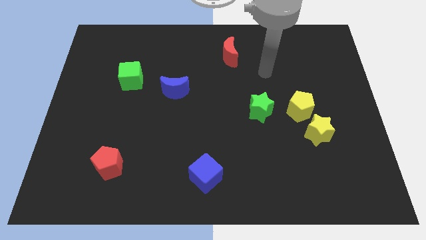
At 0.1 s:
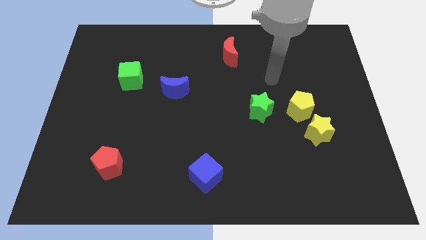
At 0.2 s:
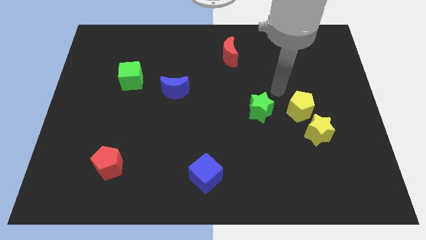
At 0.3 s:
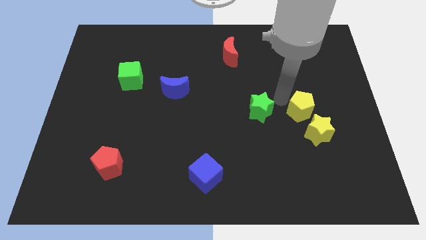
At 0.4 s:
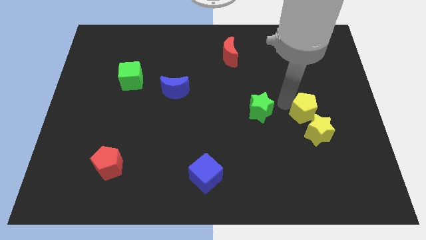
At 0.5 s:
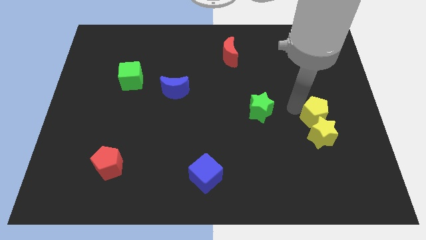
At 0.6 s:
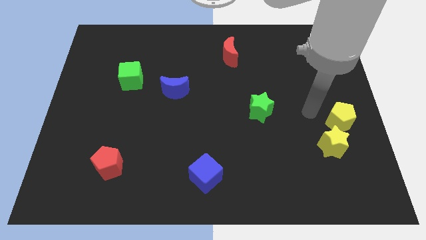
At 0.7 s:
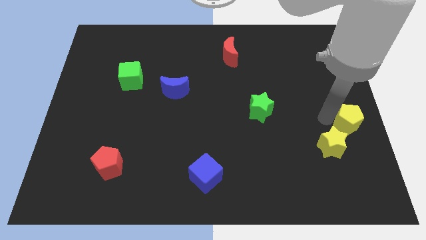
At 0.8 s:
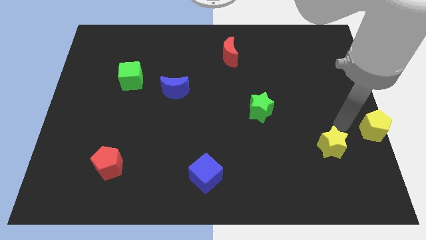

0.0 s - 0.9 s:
pull the yellow star apart from the yellow pentagon

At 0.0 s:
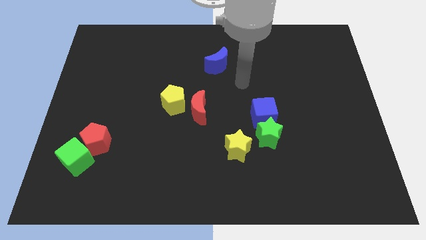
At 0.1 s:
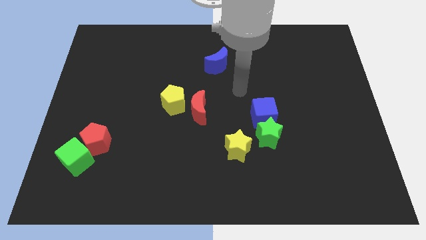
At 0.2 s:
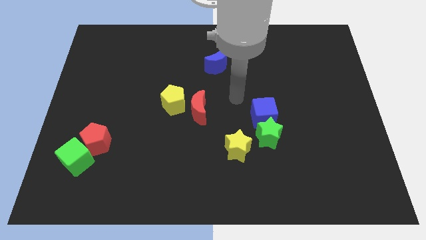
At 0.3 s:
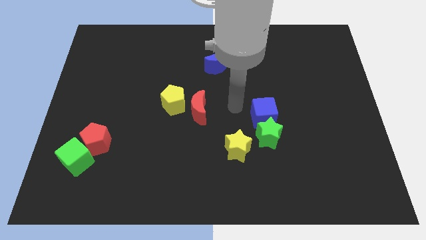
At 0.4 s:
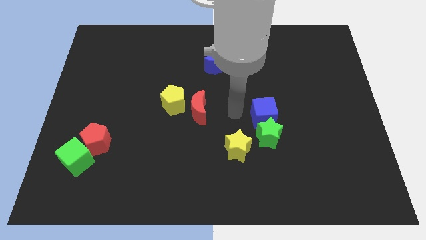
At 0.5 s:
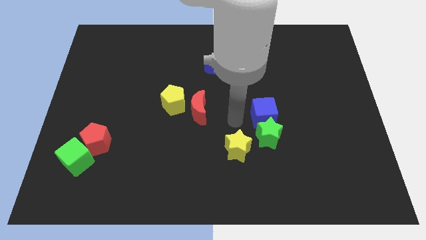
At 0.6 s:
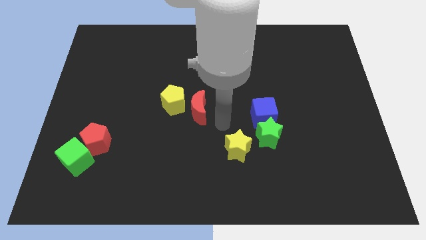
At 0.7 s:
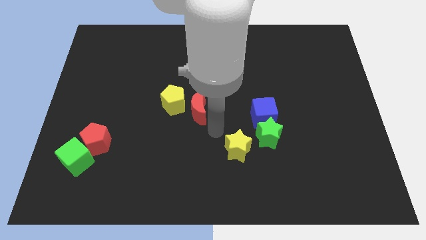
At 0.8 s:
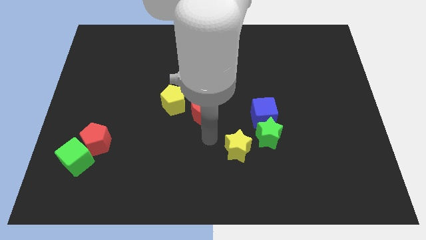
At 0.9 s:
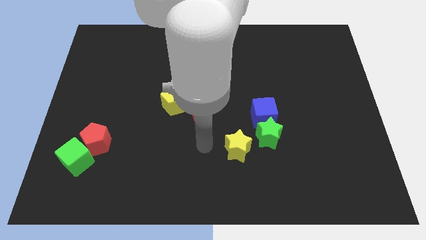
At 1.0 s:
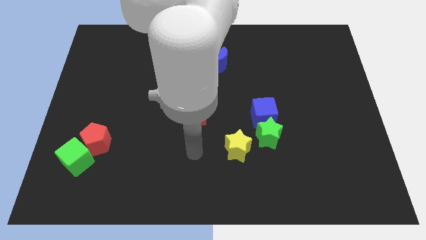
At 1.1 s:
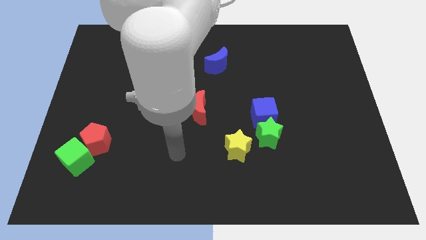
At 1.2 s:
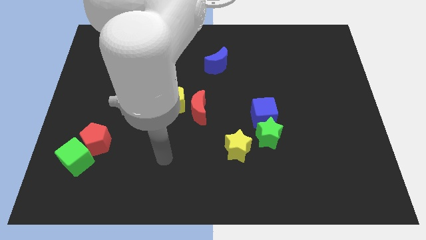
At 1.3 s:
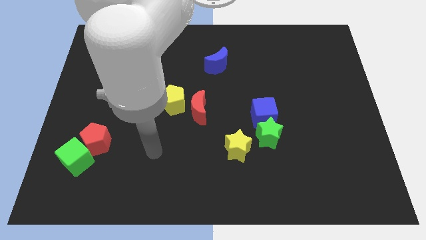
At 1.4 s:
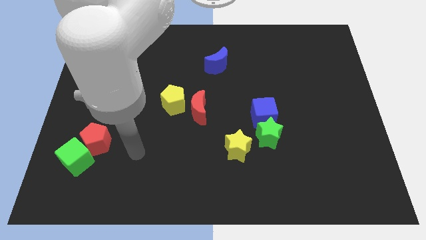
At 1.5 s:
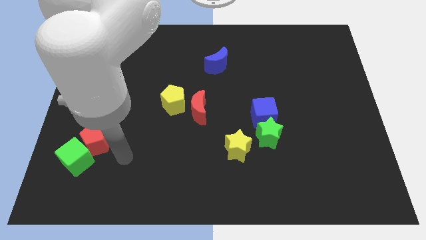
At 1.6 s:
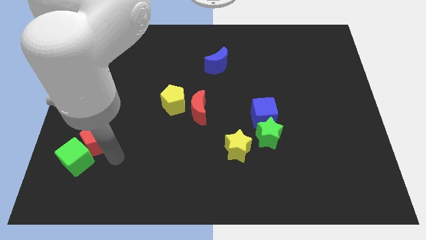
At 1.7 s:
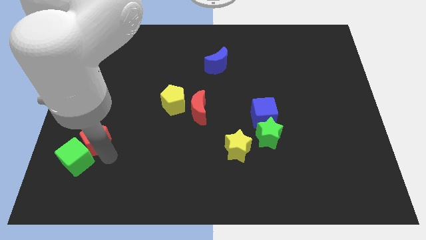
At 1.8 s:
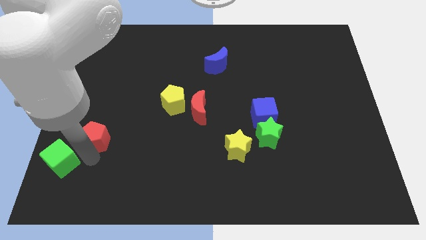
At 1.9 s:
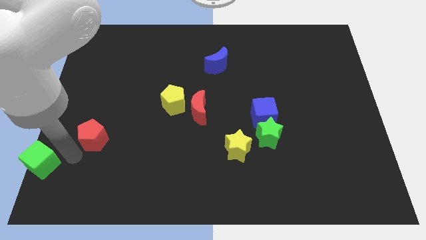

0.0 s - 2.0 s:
separate the red pentagon from the green cube

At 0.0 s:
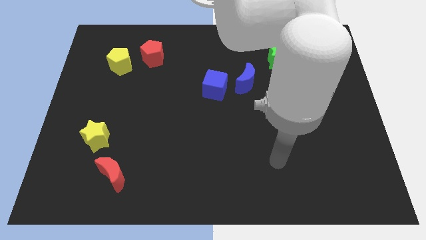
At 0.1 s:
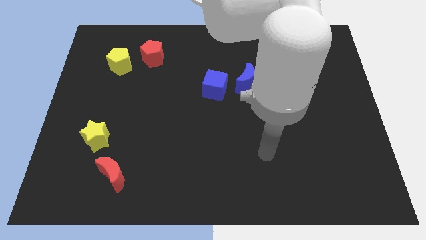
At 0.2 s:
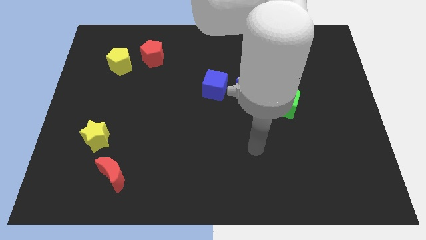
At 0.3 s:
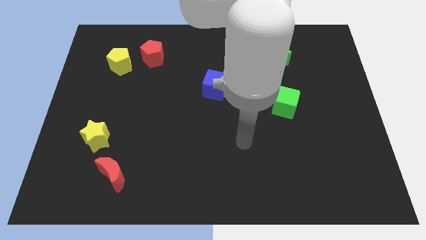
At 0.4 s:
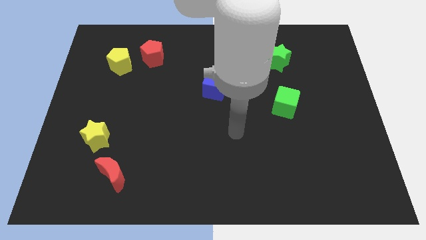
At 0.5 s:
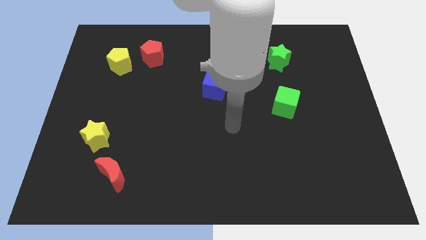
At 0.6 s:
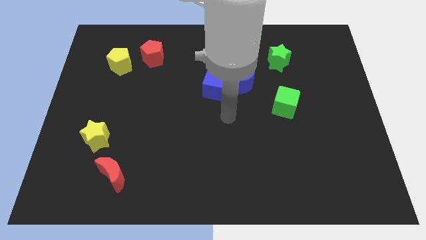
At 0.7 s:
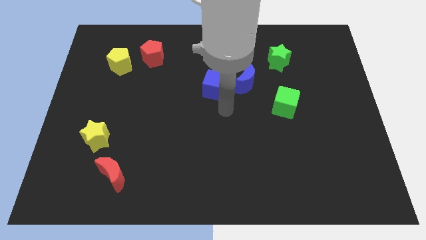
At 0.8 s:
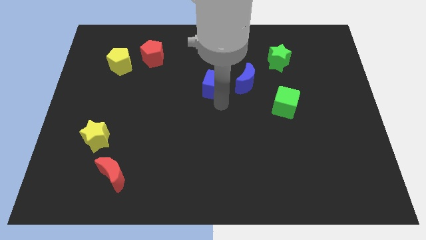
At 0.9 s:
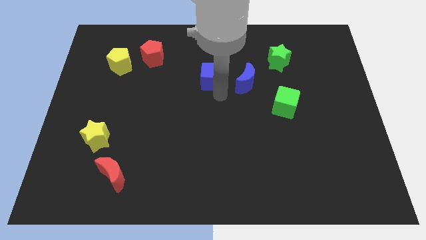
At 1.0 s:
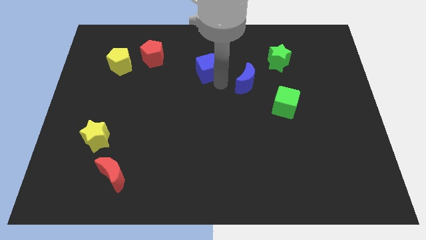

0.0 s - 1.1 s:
move the blue moon away from the blue cube

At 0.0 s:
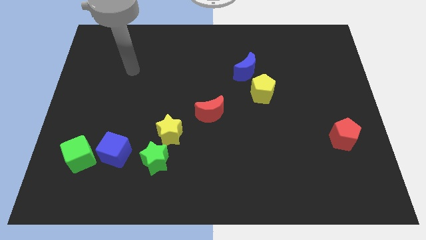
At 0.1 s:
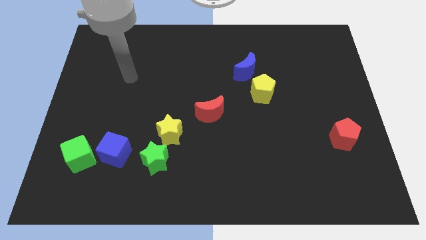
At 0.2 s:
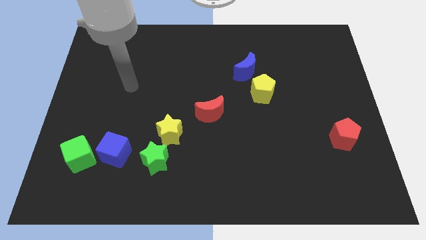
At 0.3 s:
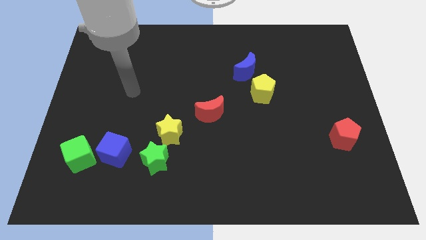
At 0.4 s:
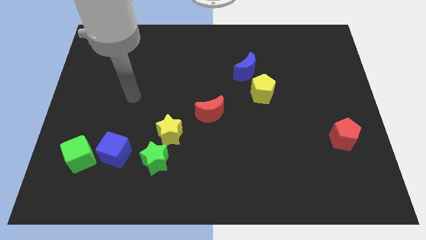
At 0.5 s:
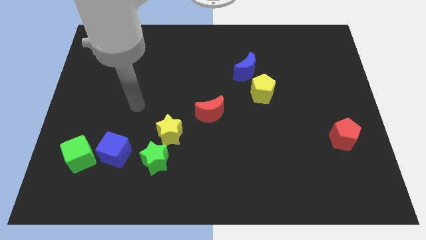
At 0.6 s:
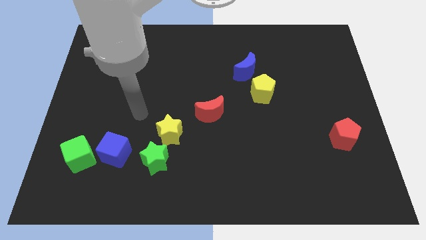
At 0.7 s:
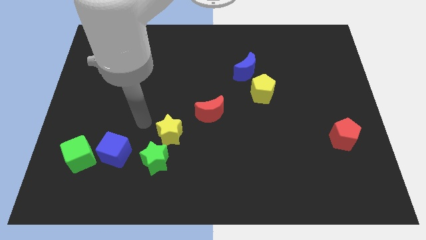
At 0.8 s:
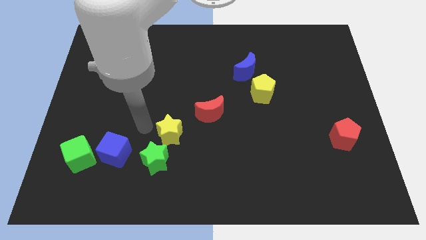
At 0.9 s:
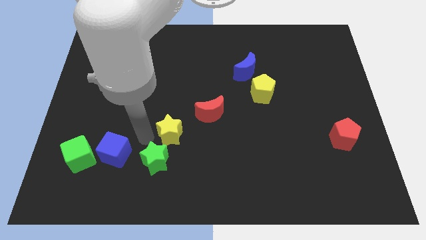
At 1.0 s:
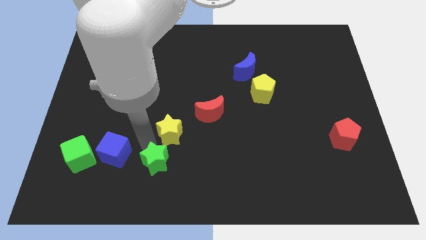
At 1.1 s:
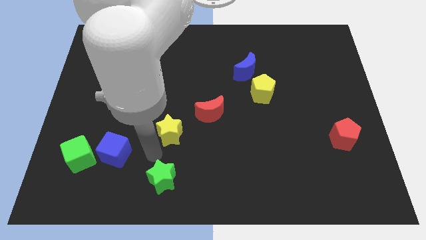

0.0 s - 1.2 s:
pull the yellow star apart from the green star

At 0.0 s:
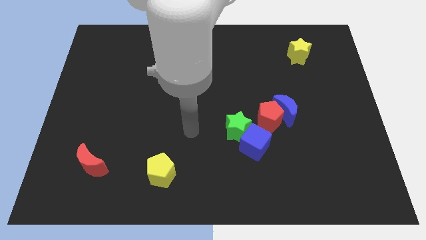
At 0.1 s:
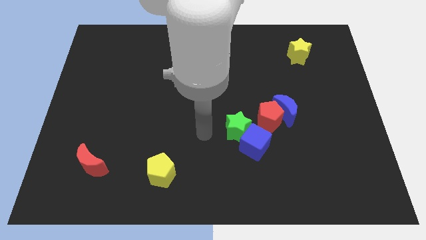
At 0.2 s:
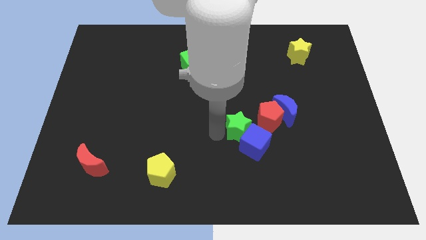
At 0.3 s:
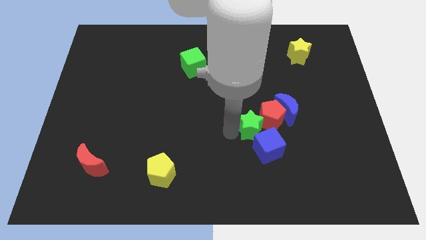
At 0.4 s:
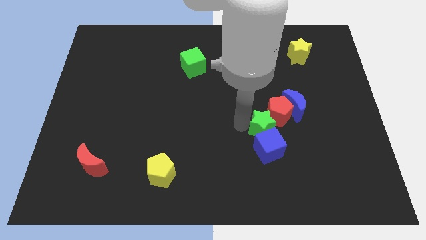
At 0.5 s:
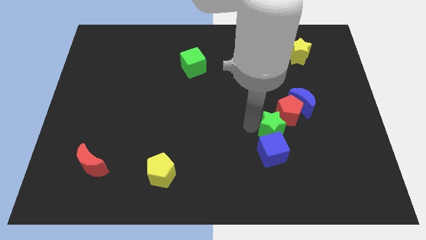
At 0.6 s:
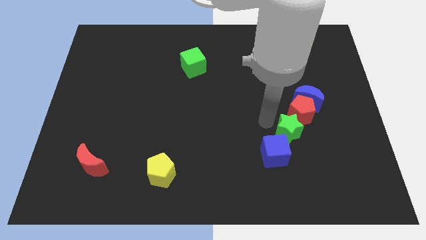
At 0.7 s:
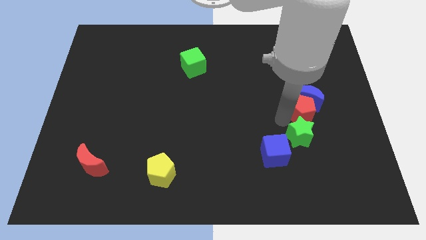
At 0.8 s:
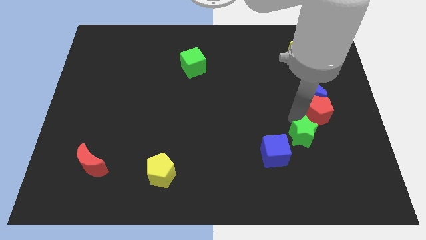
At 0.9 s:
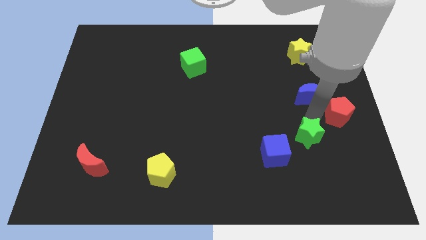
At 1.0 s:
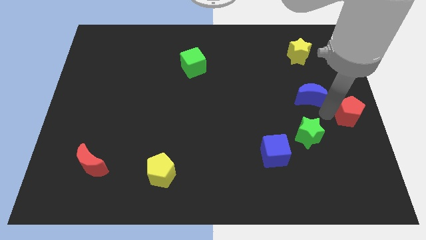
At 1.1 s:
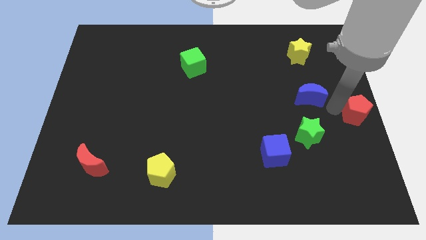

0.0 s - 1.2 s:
pull the blue moon apart from the red pentagon

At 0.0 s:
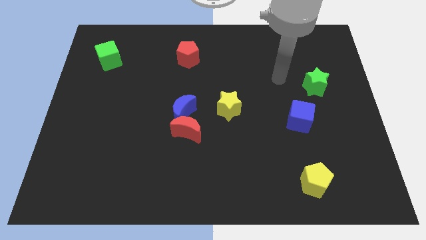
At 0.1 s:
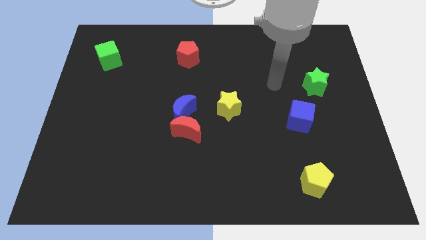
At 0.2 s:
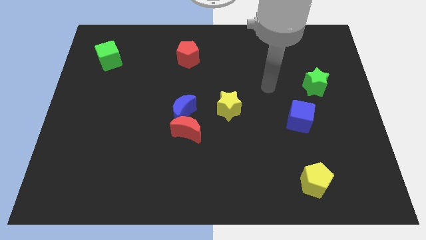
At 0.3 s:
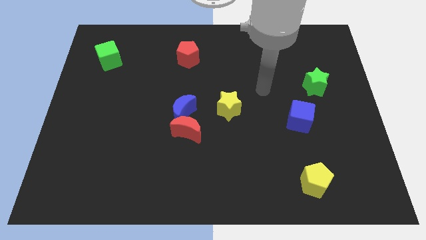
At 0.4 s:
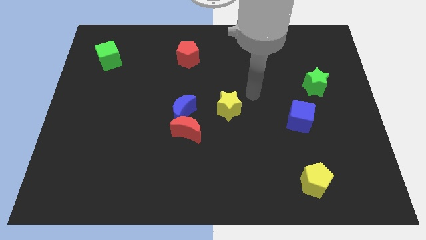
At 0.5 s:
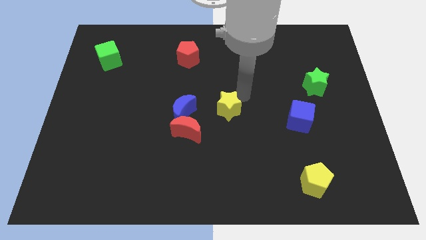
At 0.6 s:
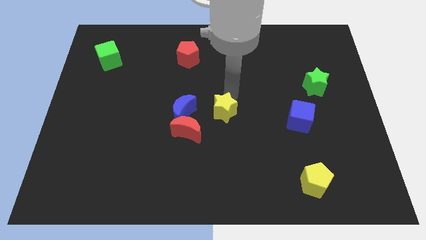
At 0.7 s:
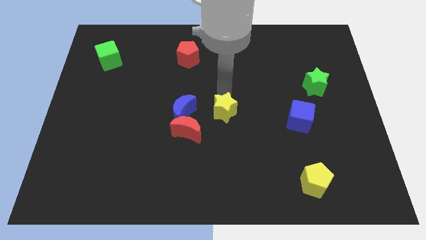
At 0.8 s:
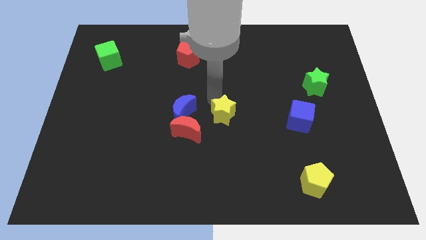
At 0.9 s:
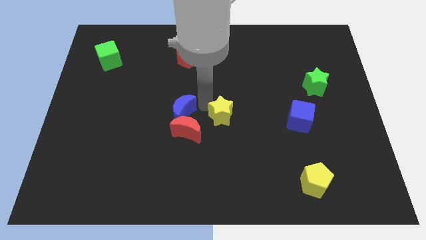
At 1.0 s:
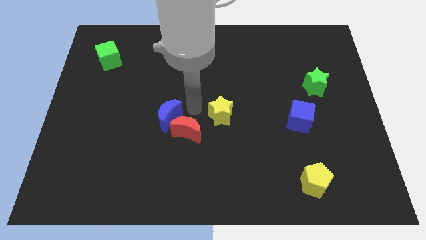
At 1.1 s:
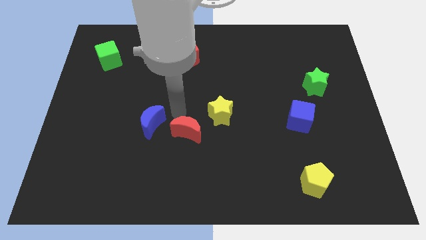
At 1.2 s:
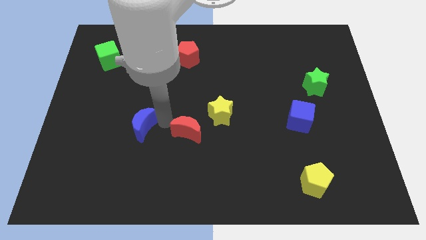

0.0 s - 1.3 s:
separate the red moon from the blue moon

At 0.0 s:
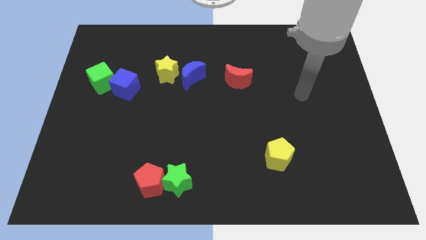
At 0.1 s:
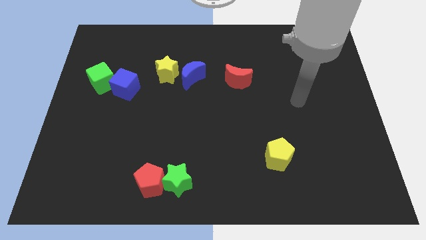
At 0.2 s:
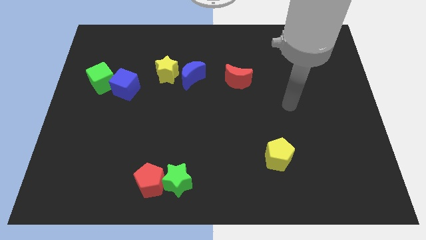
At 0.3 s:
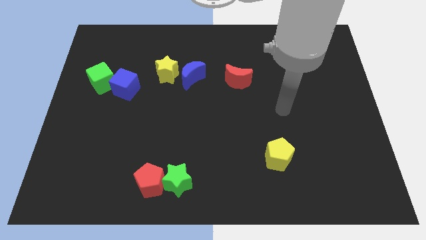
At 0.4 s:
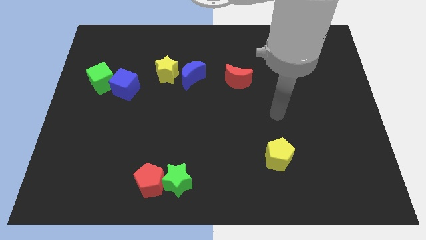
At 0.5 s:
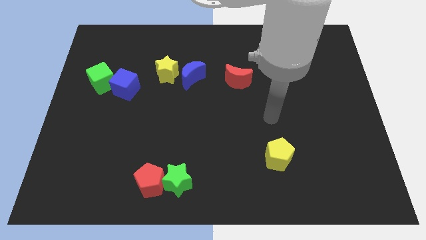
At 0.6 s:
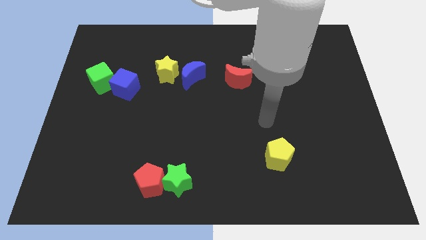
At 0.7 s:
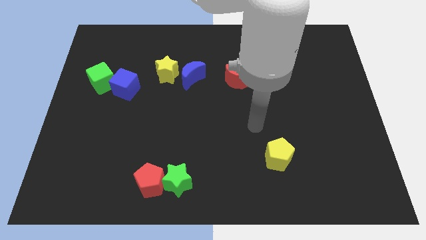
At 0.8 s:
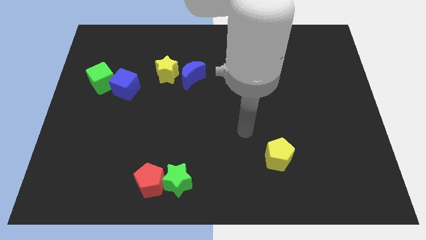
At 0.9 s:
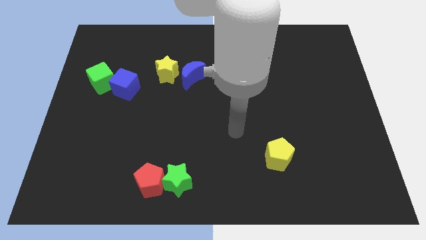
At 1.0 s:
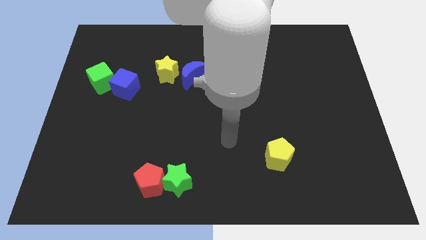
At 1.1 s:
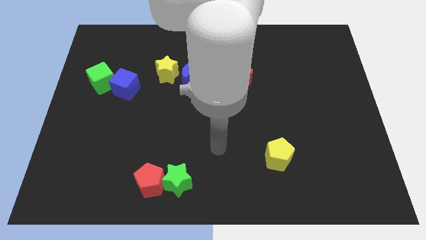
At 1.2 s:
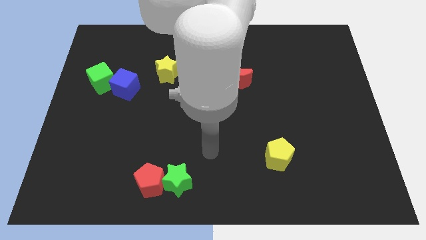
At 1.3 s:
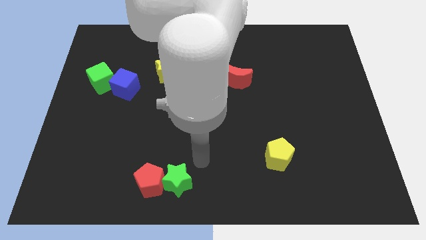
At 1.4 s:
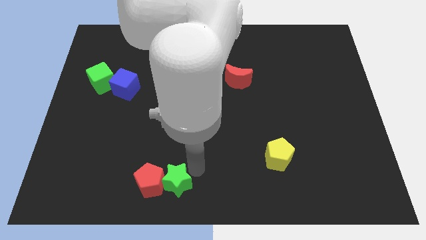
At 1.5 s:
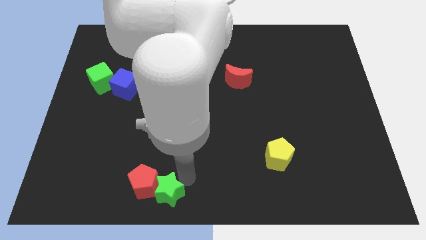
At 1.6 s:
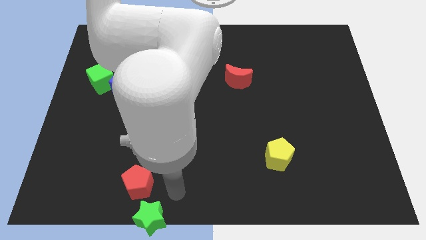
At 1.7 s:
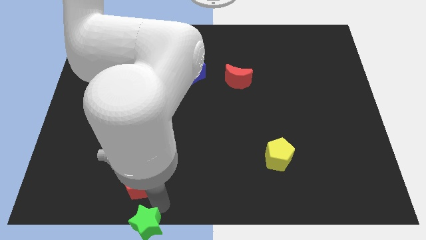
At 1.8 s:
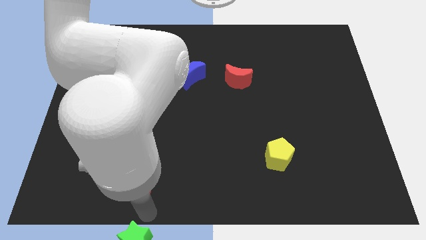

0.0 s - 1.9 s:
separate the red pentagon from the green star
